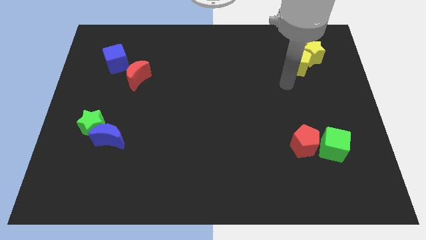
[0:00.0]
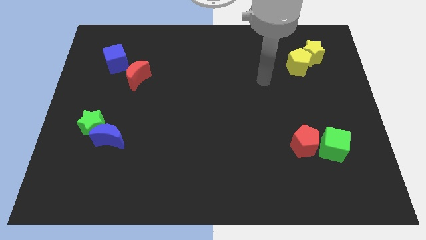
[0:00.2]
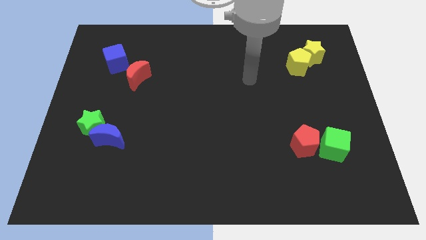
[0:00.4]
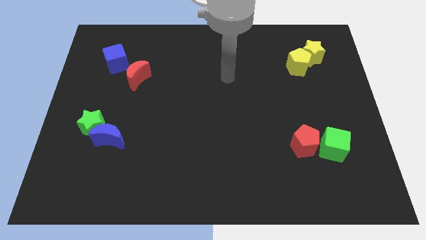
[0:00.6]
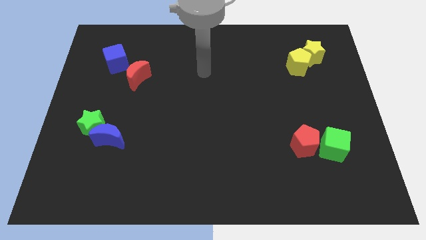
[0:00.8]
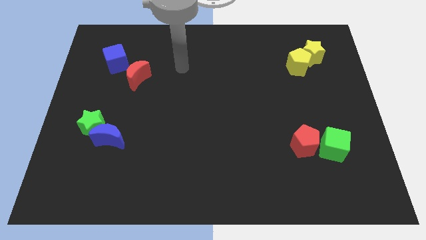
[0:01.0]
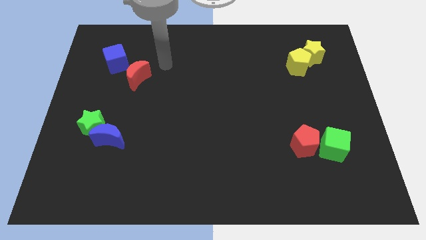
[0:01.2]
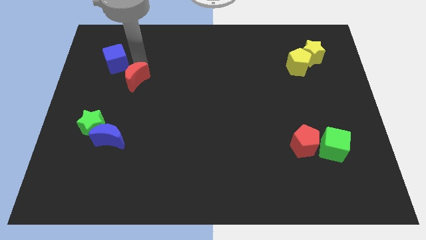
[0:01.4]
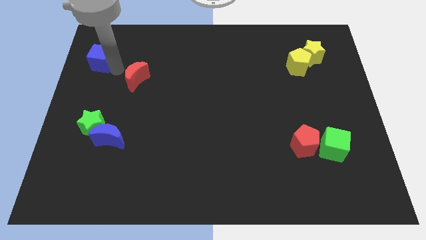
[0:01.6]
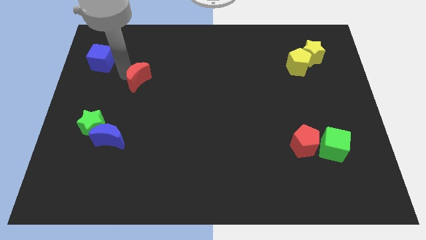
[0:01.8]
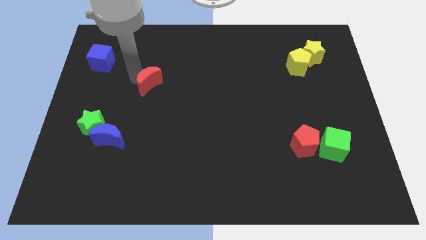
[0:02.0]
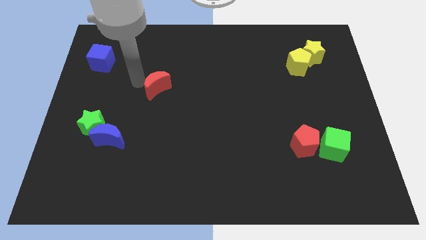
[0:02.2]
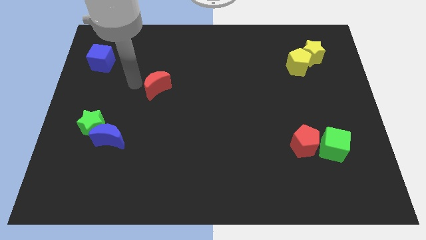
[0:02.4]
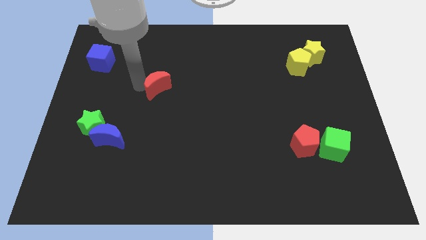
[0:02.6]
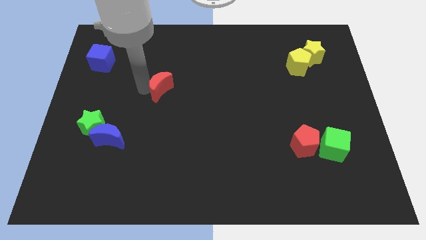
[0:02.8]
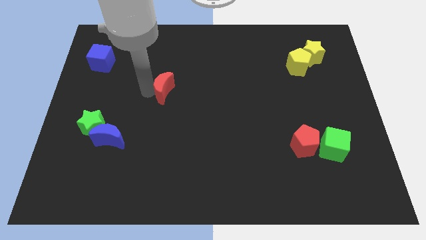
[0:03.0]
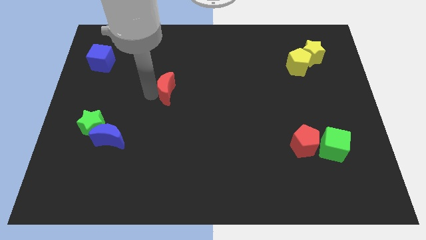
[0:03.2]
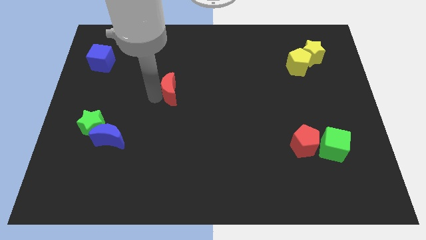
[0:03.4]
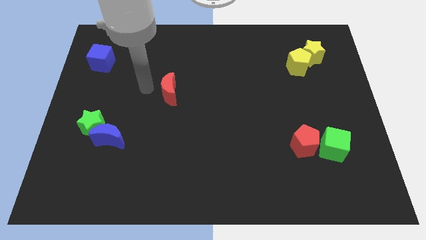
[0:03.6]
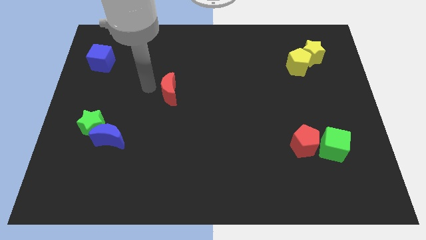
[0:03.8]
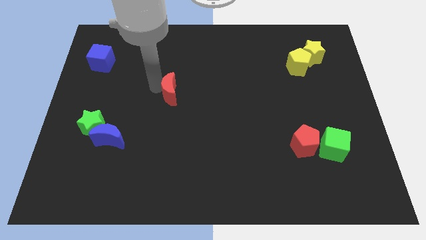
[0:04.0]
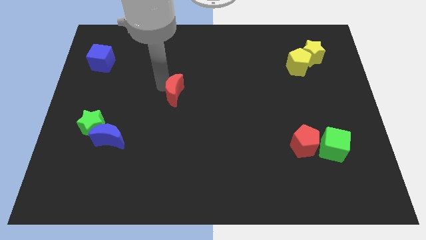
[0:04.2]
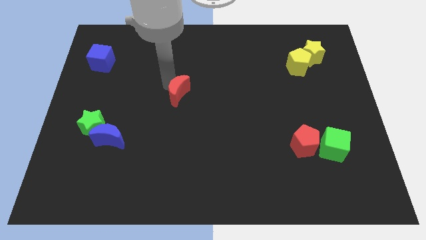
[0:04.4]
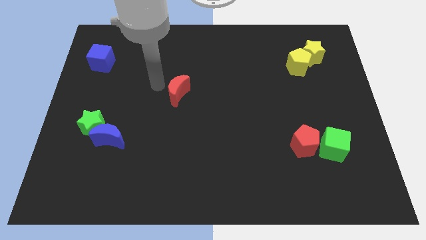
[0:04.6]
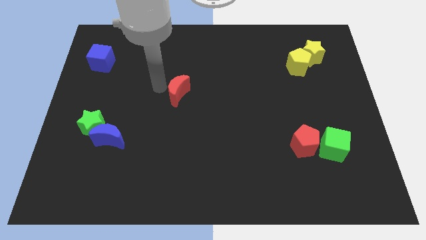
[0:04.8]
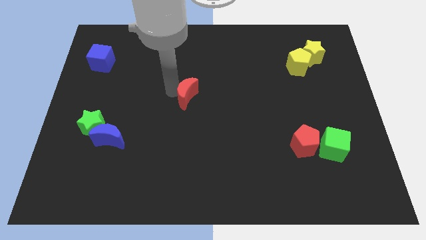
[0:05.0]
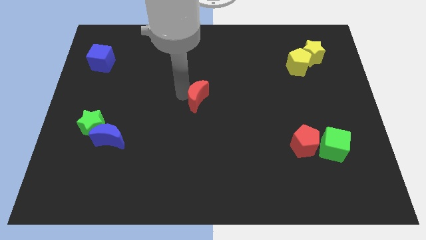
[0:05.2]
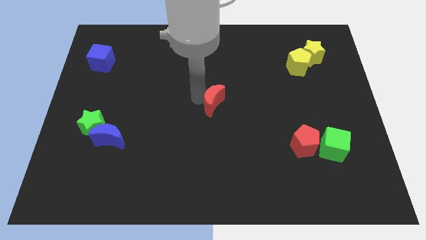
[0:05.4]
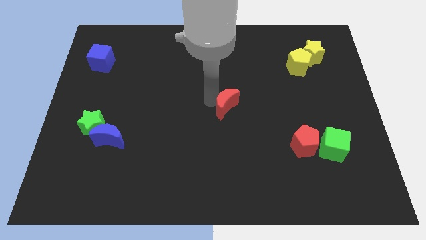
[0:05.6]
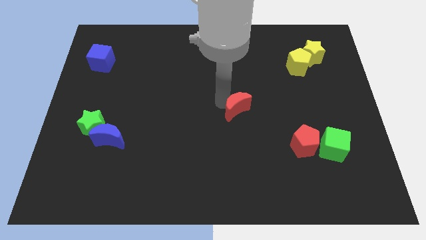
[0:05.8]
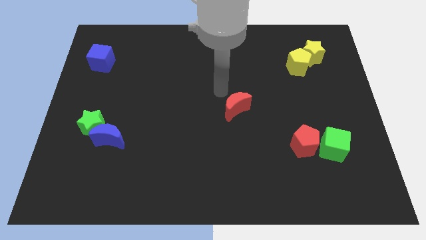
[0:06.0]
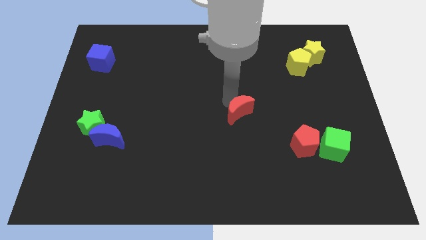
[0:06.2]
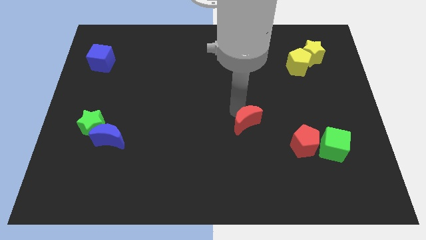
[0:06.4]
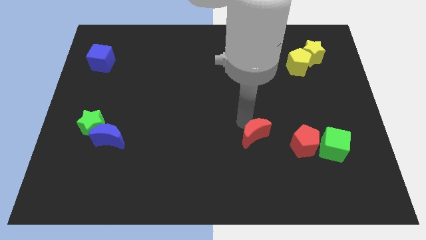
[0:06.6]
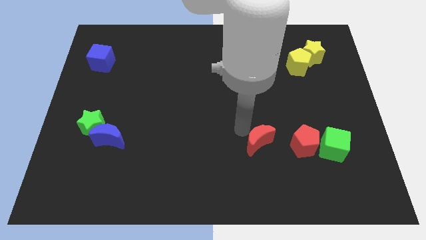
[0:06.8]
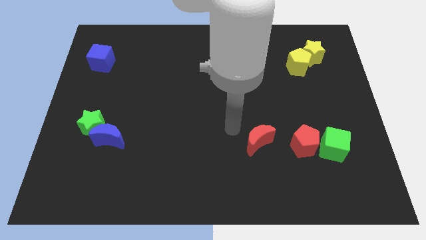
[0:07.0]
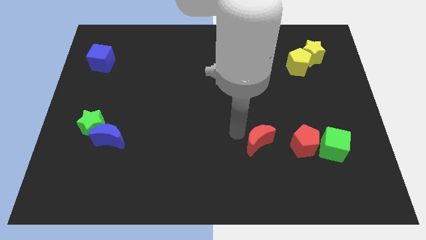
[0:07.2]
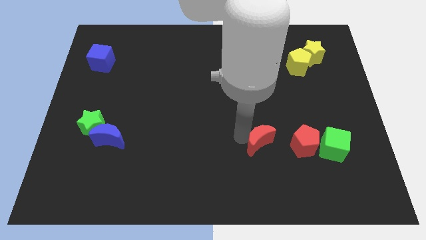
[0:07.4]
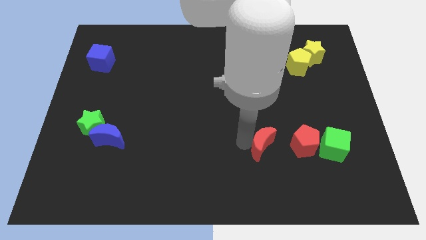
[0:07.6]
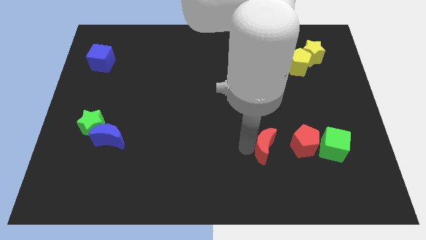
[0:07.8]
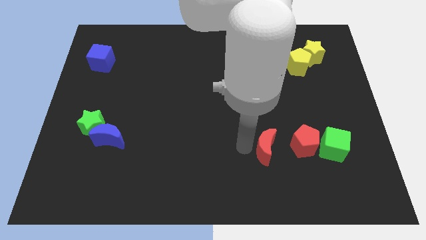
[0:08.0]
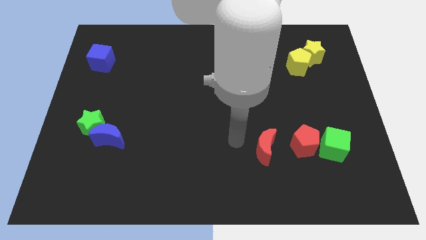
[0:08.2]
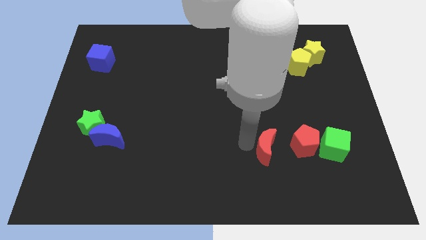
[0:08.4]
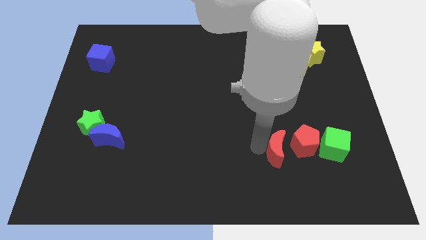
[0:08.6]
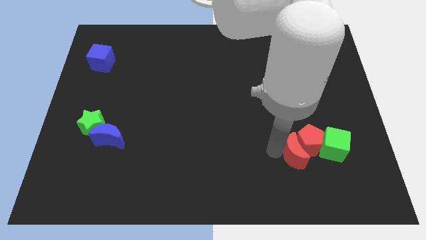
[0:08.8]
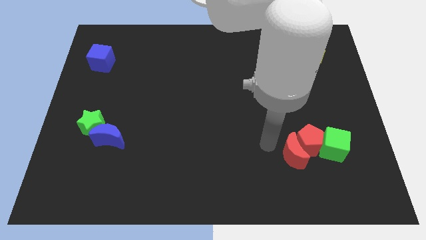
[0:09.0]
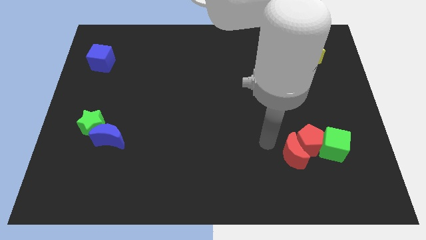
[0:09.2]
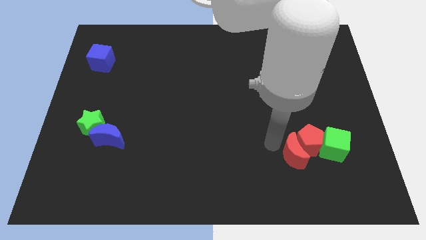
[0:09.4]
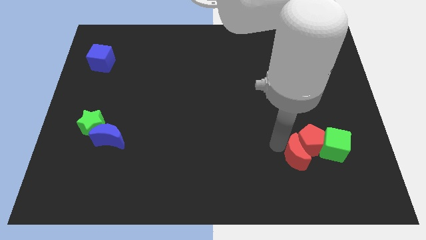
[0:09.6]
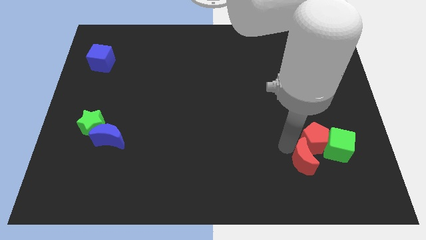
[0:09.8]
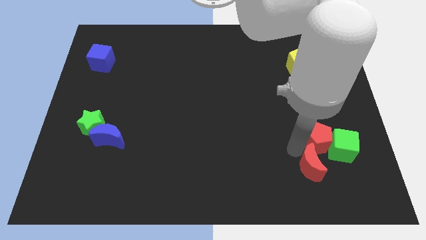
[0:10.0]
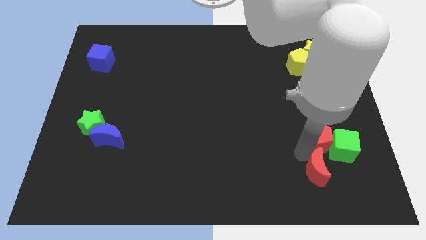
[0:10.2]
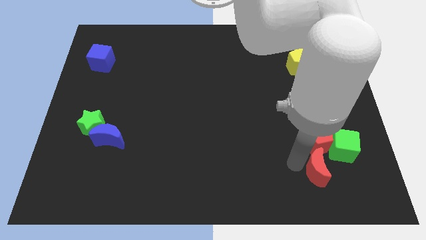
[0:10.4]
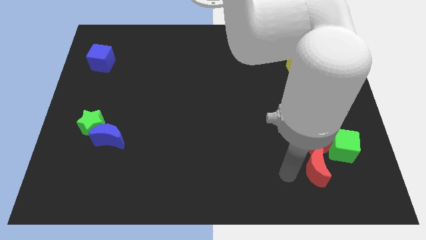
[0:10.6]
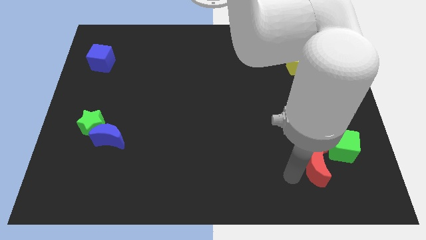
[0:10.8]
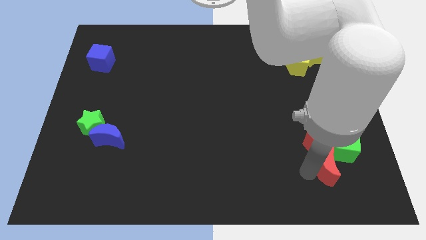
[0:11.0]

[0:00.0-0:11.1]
push the red moon to the bottom right of the red pentagon

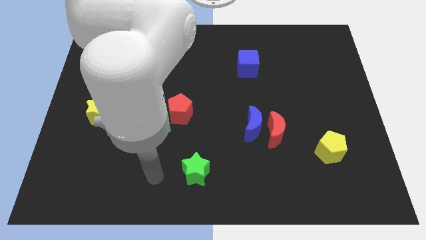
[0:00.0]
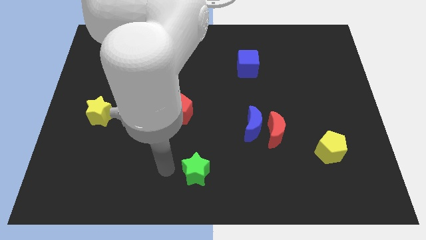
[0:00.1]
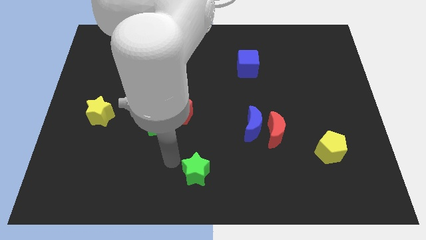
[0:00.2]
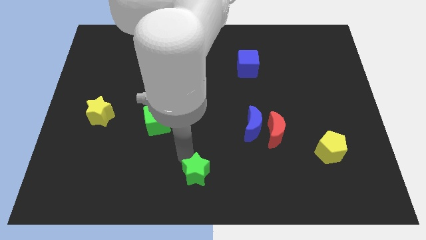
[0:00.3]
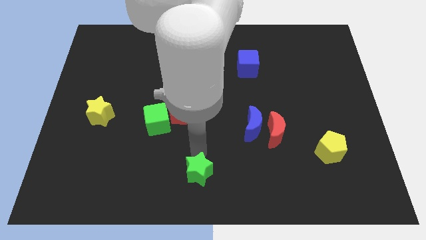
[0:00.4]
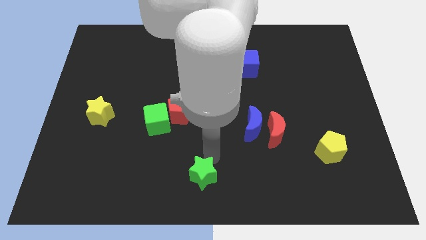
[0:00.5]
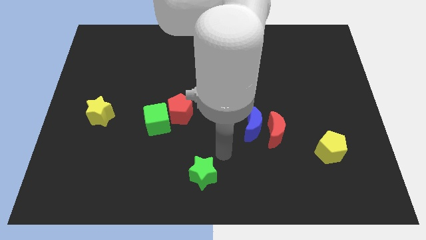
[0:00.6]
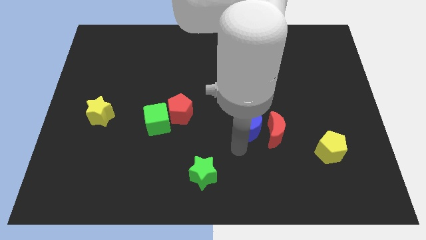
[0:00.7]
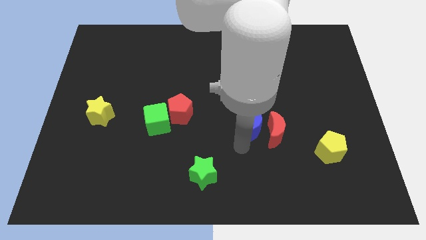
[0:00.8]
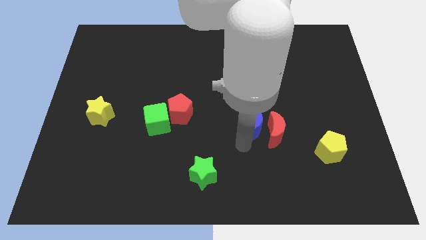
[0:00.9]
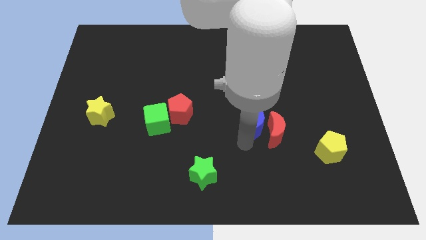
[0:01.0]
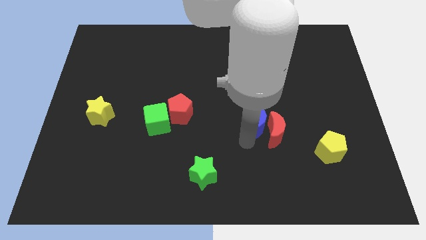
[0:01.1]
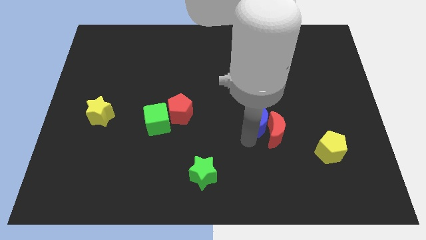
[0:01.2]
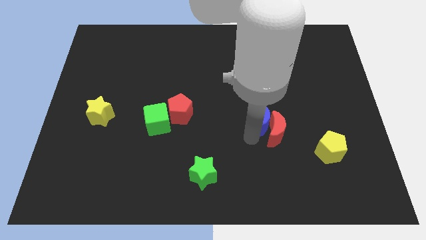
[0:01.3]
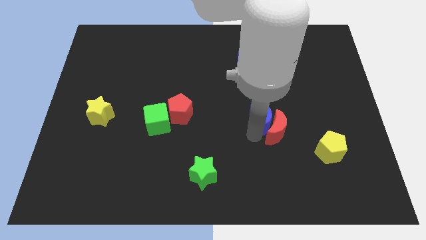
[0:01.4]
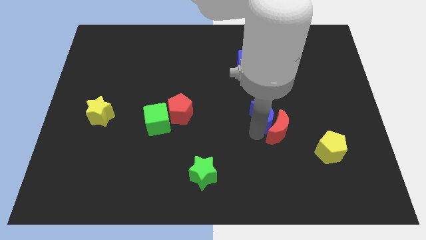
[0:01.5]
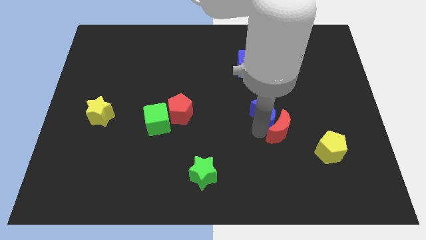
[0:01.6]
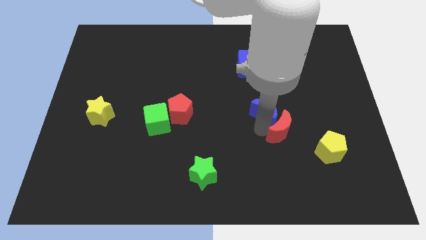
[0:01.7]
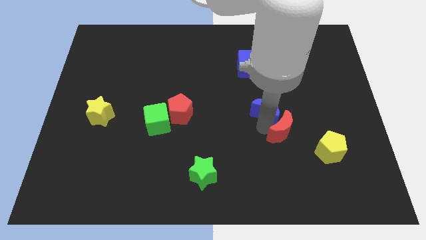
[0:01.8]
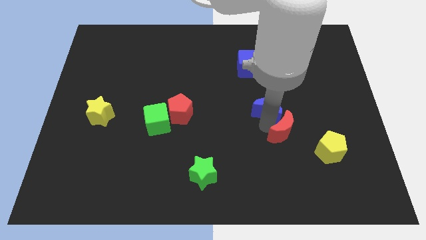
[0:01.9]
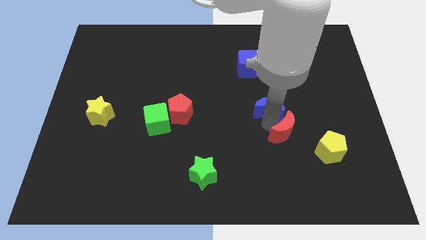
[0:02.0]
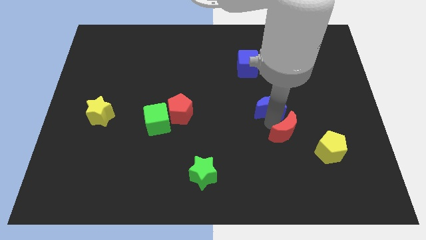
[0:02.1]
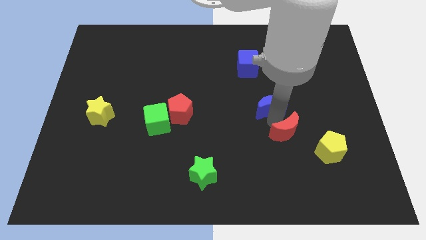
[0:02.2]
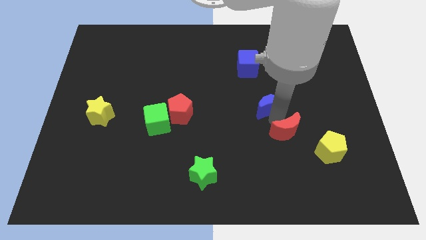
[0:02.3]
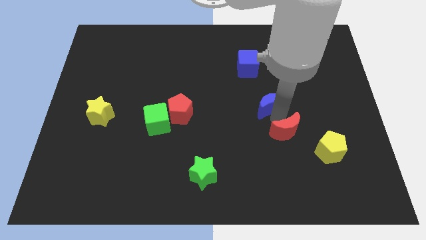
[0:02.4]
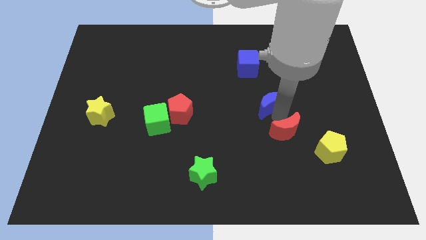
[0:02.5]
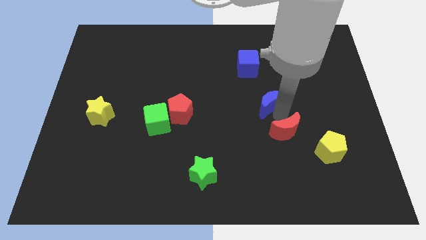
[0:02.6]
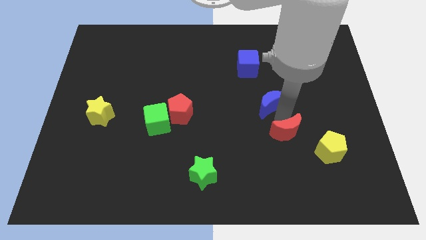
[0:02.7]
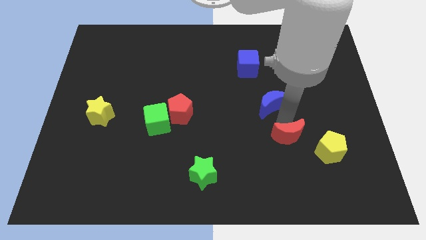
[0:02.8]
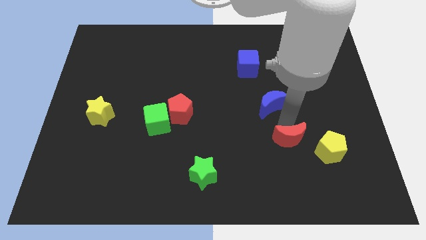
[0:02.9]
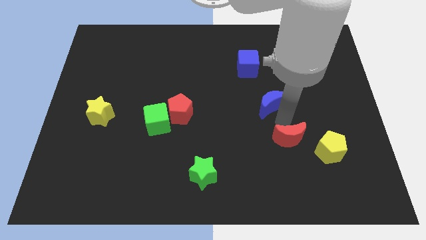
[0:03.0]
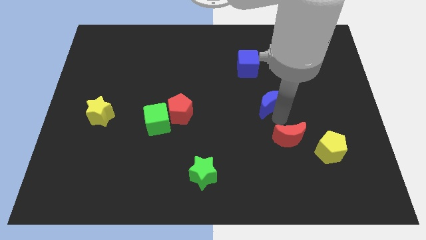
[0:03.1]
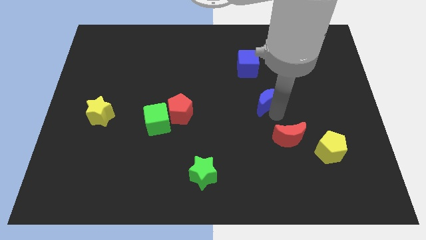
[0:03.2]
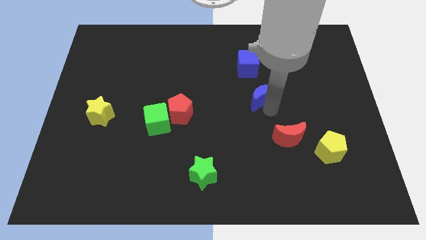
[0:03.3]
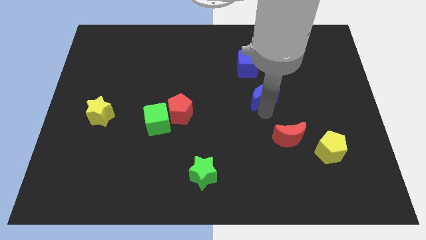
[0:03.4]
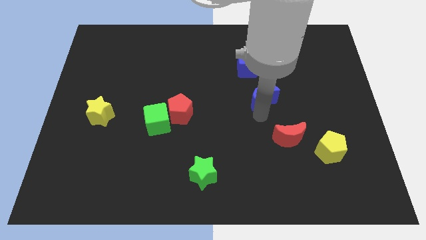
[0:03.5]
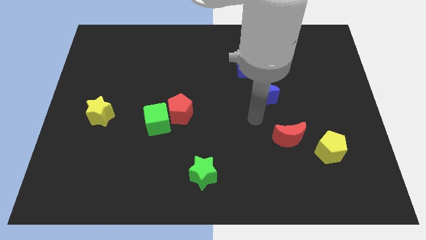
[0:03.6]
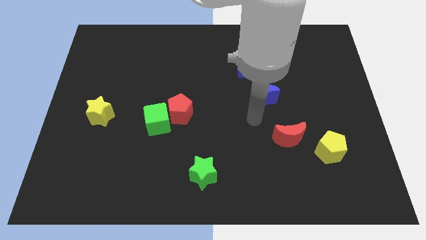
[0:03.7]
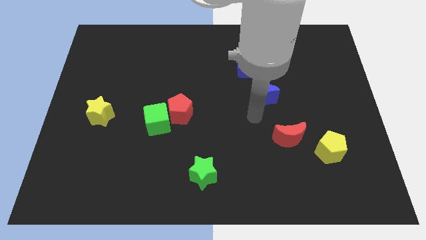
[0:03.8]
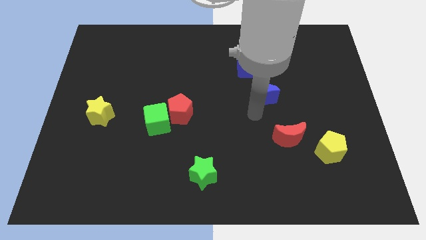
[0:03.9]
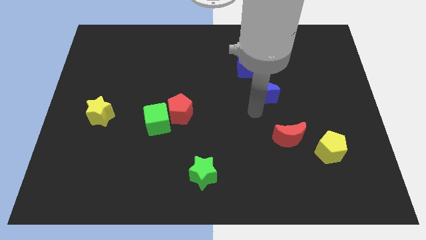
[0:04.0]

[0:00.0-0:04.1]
put the blue moon to the bottom right side of the blue cube
